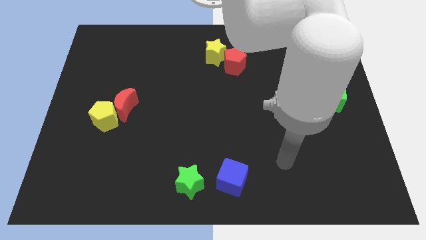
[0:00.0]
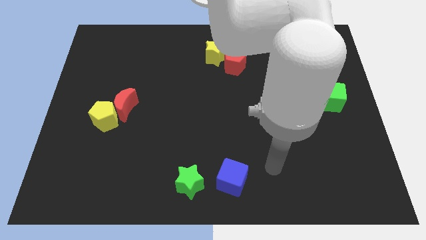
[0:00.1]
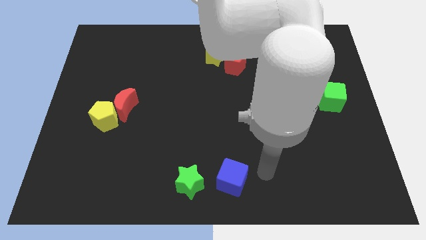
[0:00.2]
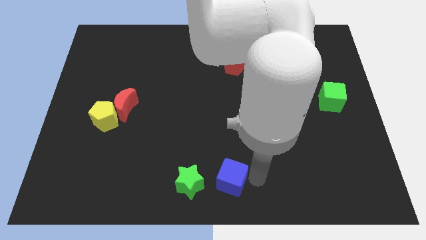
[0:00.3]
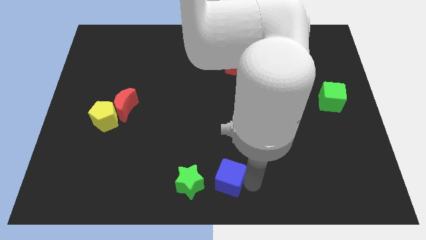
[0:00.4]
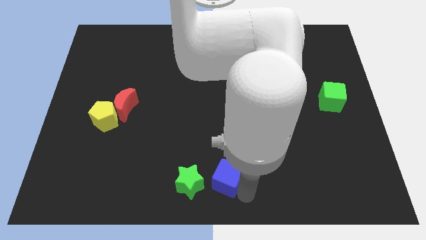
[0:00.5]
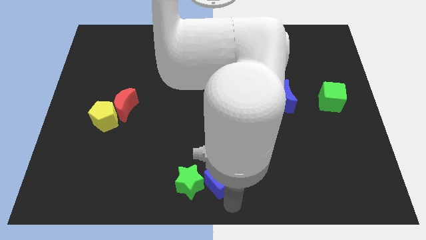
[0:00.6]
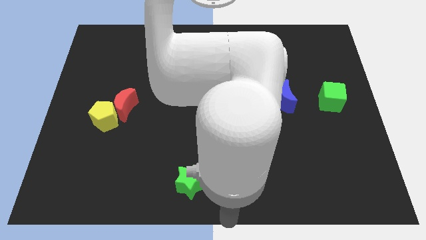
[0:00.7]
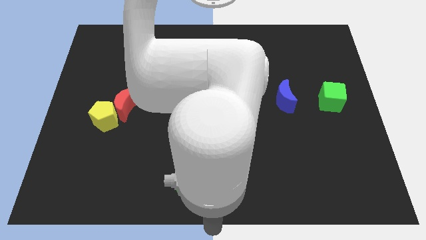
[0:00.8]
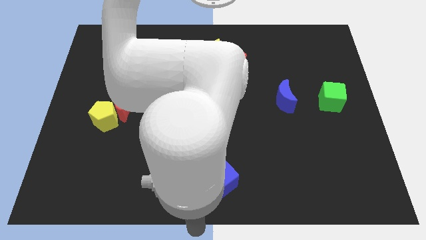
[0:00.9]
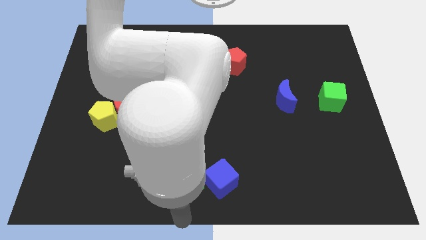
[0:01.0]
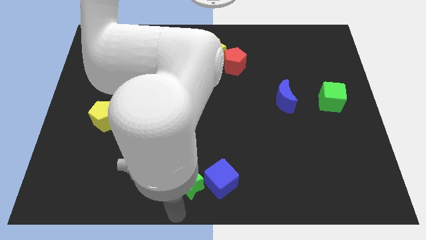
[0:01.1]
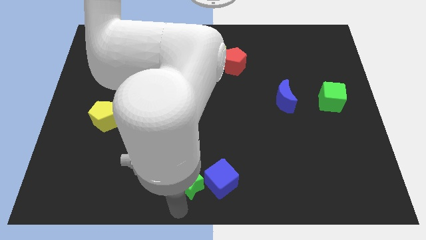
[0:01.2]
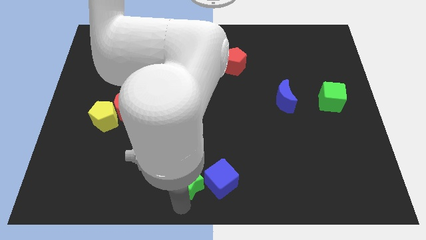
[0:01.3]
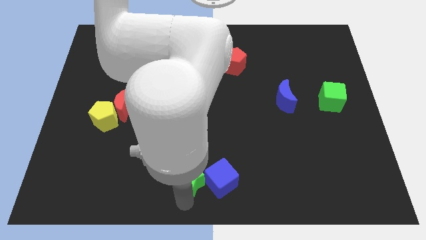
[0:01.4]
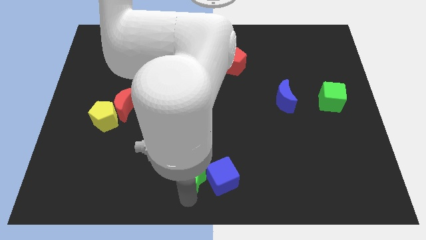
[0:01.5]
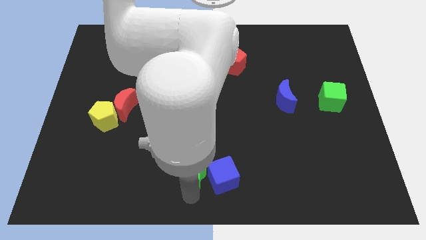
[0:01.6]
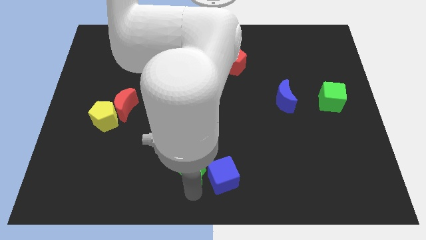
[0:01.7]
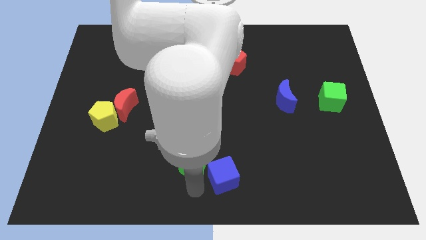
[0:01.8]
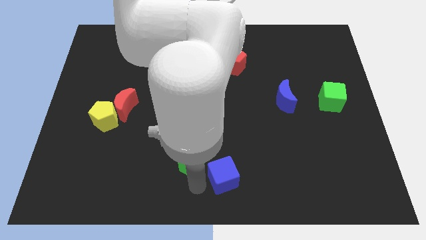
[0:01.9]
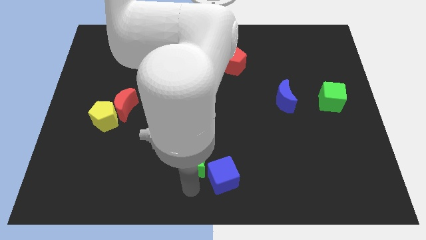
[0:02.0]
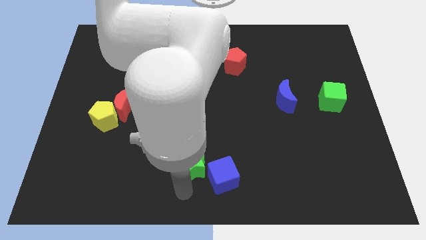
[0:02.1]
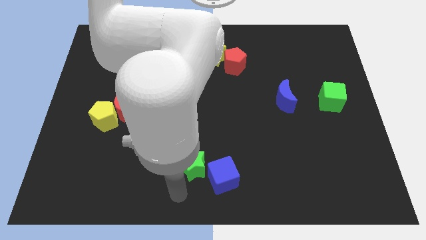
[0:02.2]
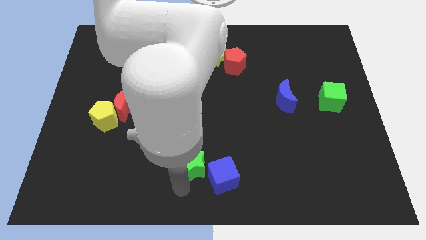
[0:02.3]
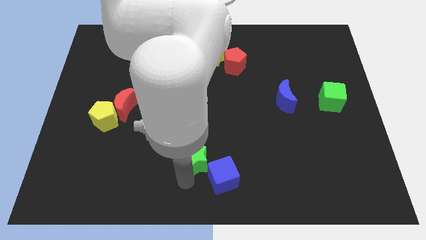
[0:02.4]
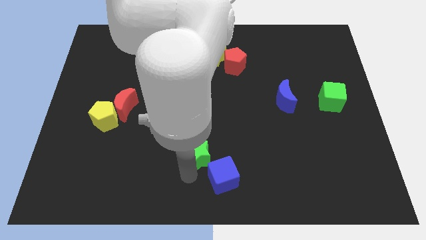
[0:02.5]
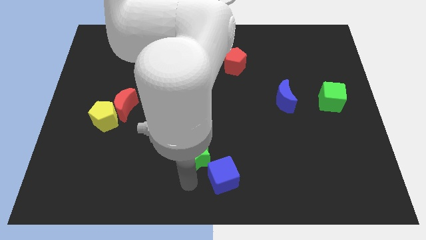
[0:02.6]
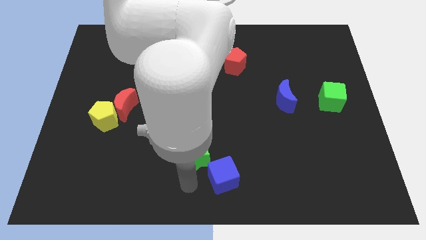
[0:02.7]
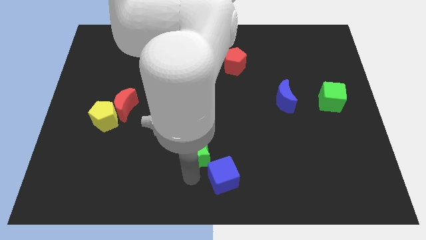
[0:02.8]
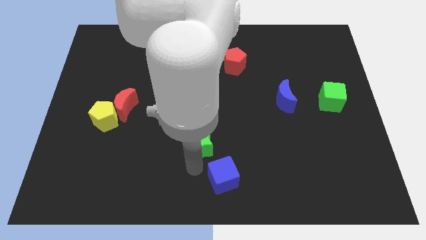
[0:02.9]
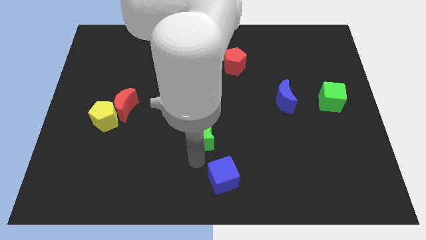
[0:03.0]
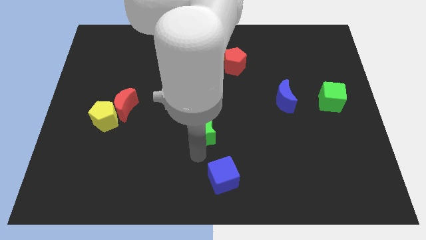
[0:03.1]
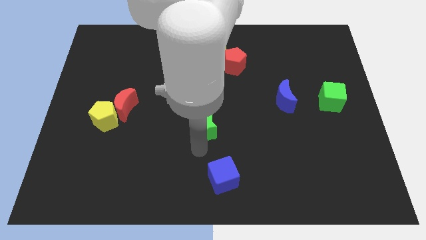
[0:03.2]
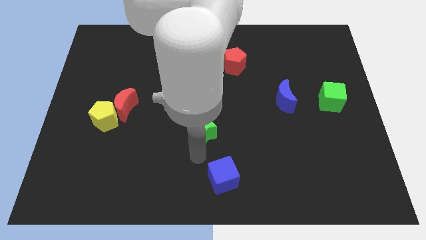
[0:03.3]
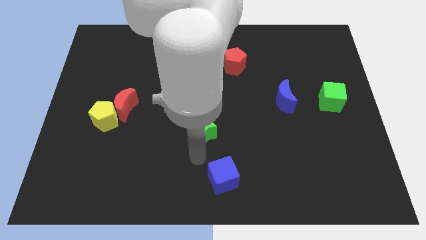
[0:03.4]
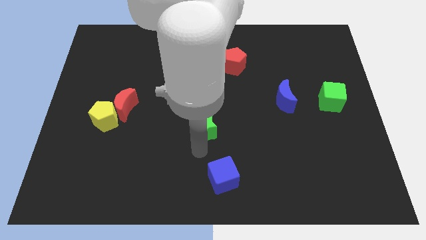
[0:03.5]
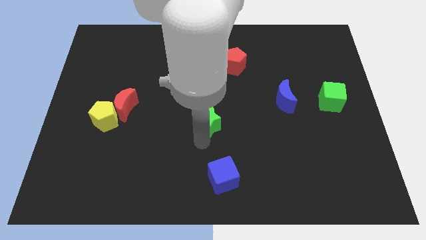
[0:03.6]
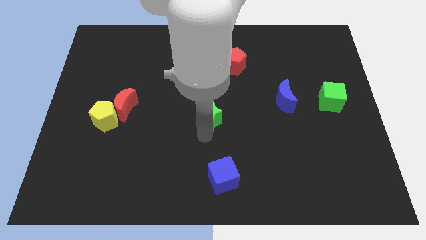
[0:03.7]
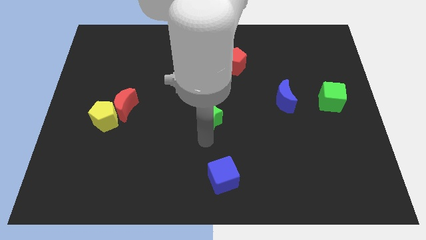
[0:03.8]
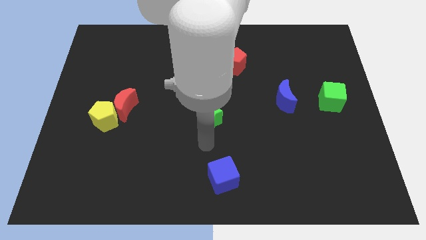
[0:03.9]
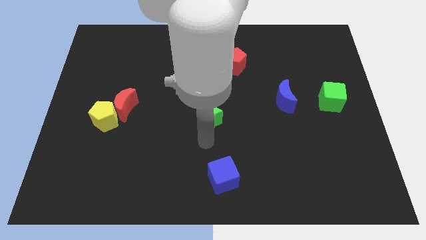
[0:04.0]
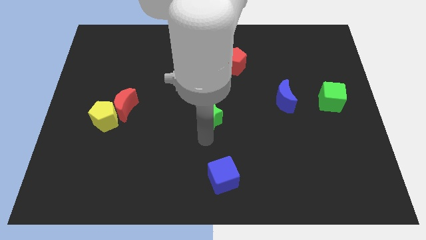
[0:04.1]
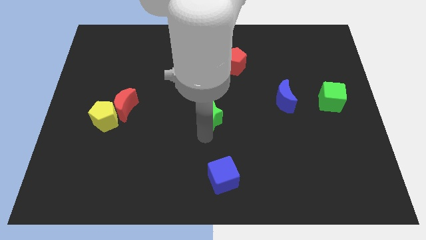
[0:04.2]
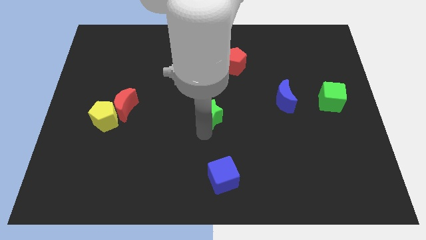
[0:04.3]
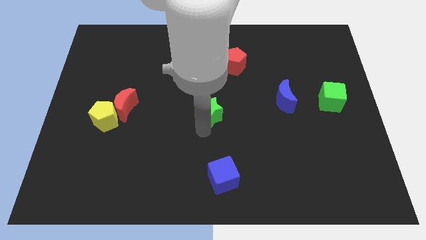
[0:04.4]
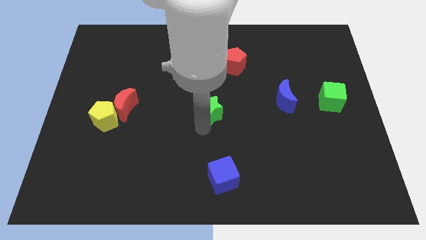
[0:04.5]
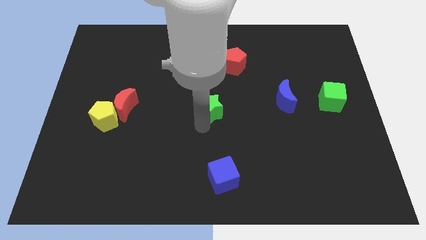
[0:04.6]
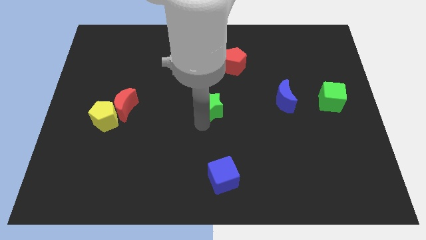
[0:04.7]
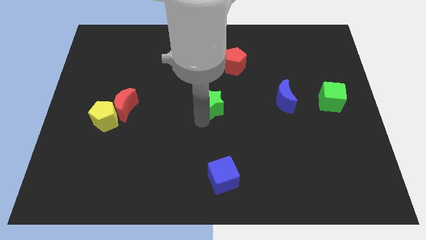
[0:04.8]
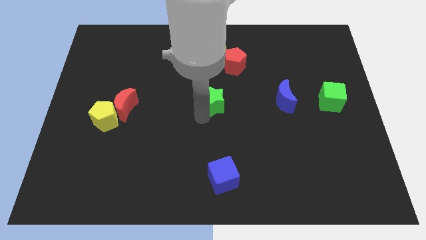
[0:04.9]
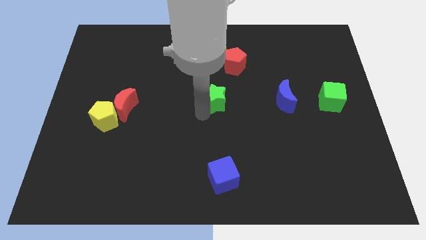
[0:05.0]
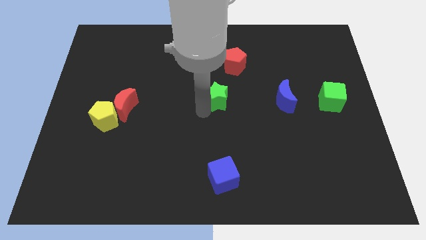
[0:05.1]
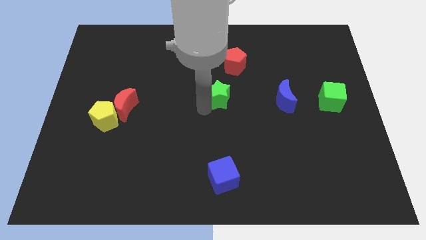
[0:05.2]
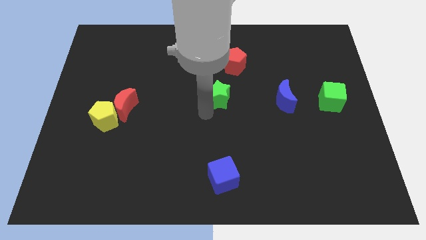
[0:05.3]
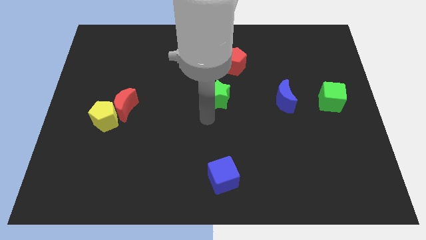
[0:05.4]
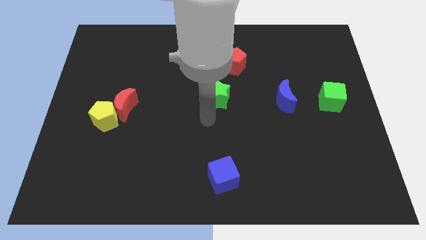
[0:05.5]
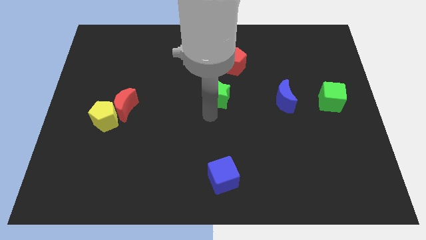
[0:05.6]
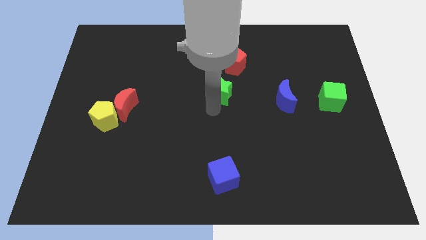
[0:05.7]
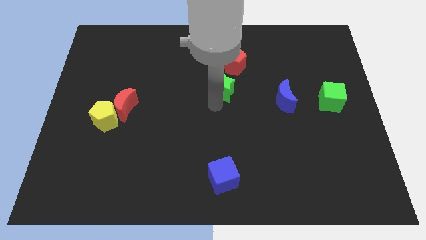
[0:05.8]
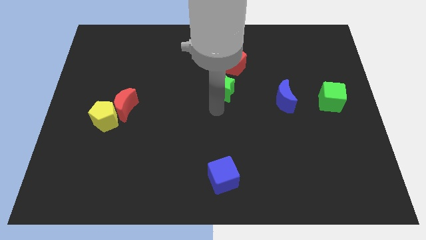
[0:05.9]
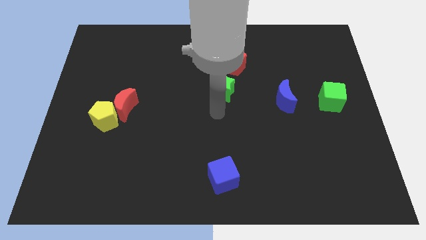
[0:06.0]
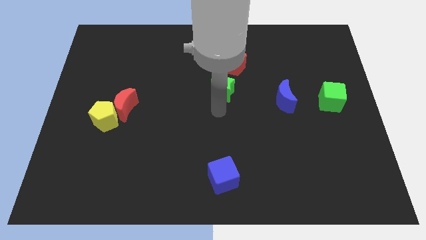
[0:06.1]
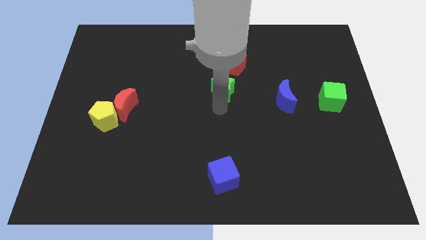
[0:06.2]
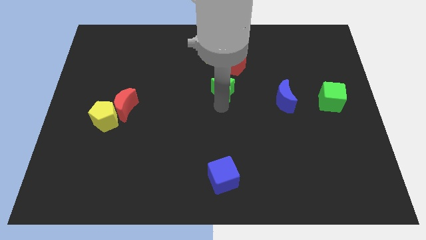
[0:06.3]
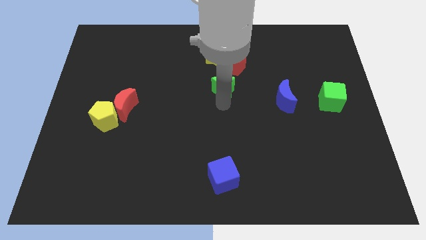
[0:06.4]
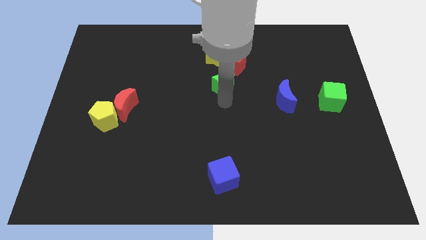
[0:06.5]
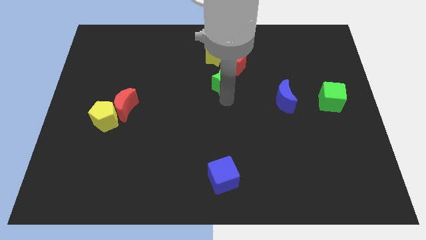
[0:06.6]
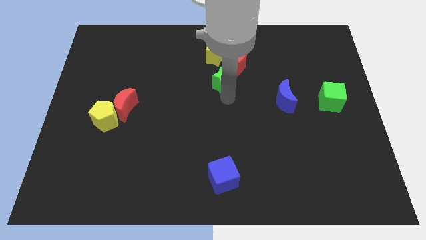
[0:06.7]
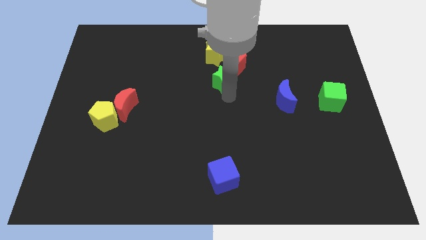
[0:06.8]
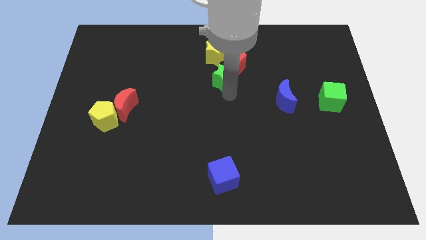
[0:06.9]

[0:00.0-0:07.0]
slide the green star close to the red pentagon

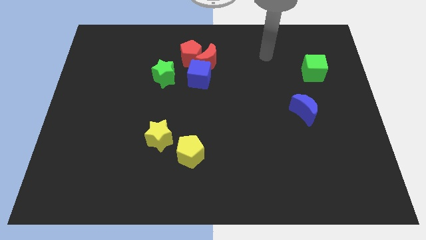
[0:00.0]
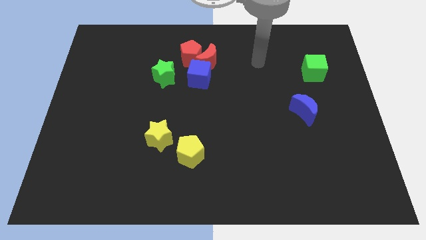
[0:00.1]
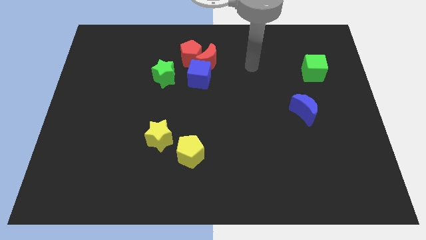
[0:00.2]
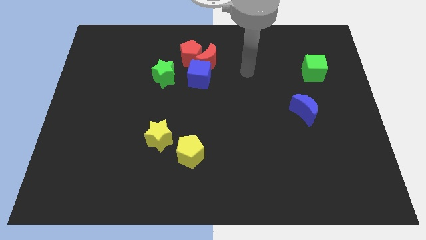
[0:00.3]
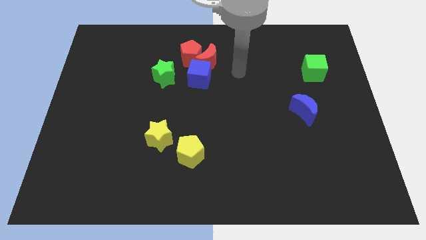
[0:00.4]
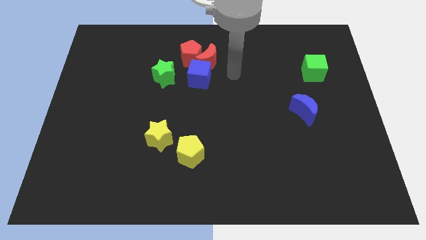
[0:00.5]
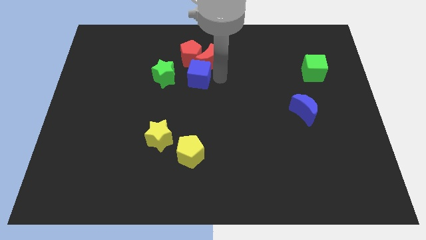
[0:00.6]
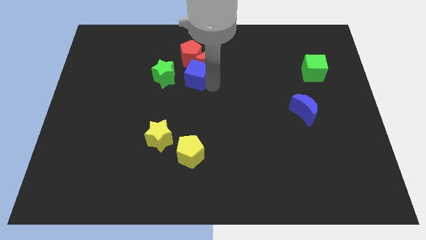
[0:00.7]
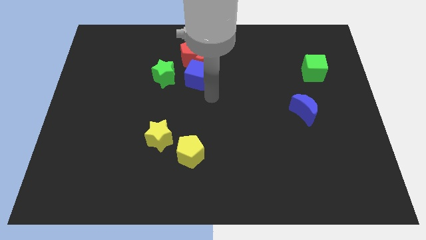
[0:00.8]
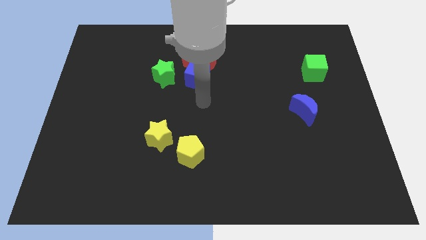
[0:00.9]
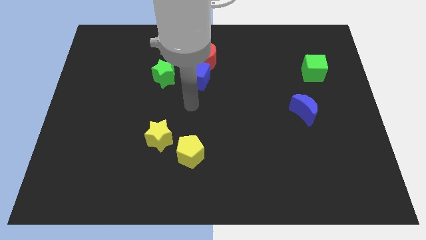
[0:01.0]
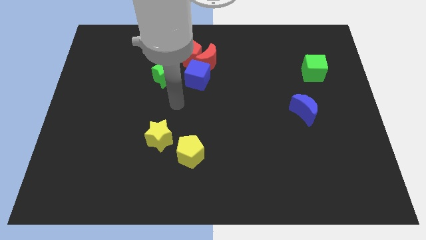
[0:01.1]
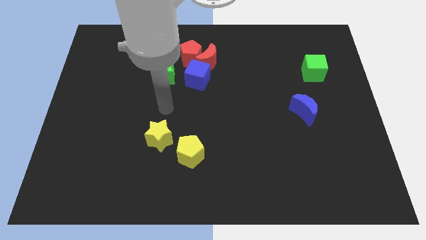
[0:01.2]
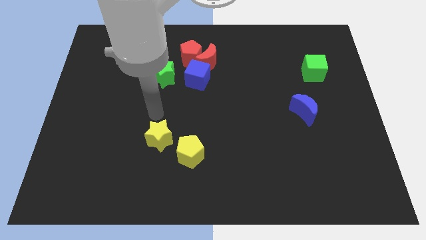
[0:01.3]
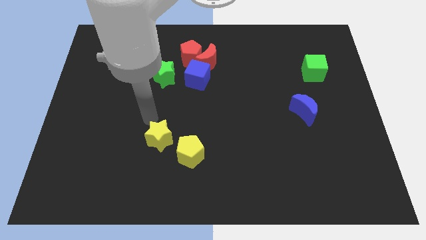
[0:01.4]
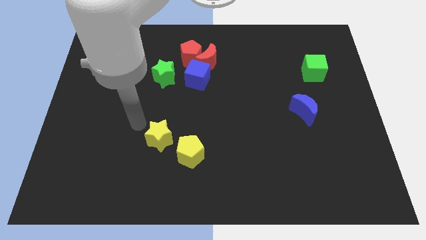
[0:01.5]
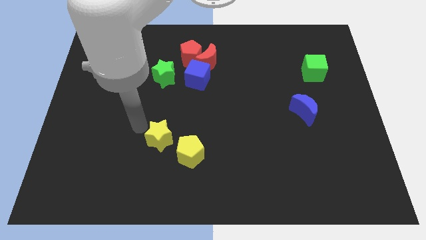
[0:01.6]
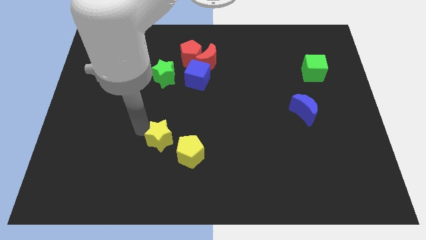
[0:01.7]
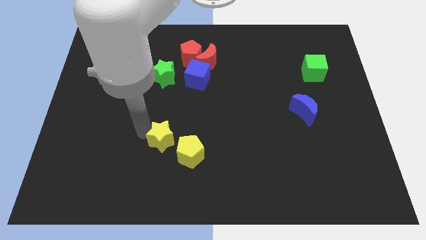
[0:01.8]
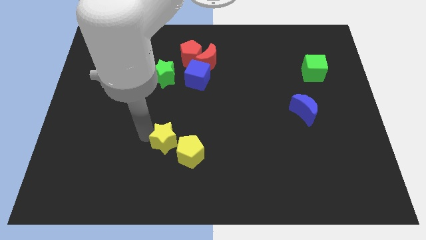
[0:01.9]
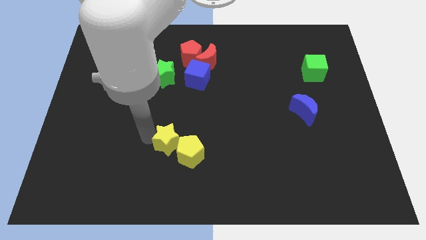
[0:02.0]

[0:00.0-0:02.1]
push the yellow star close to the yellow pentagon
